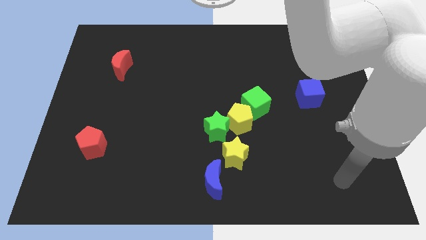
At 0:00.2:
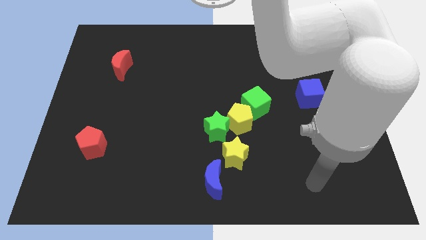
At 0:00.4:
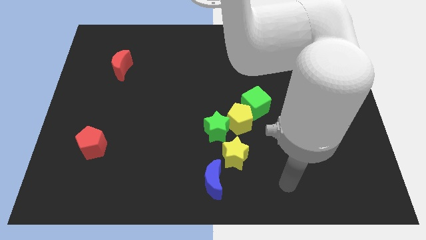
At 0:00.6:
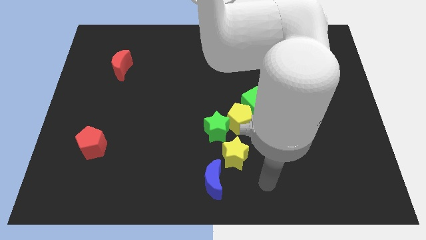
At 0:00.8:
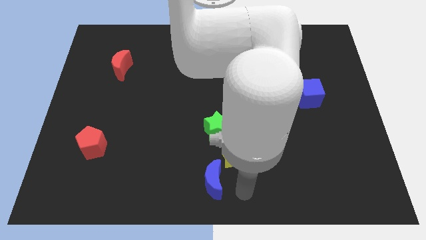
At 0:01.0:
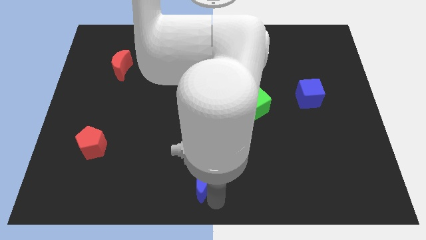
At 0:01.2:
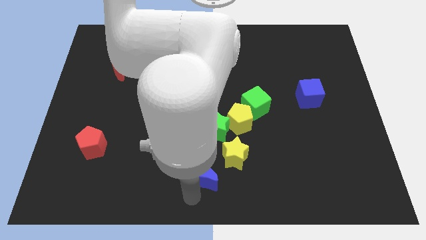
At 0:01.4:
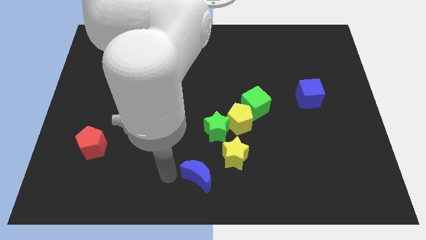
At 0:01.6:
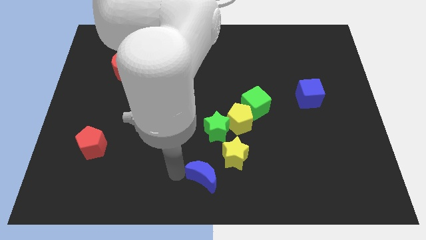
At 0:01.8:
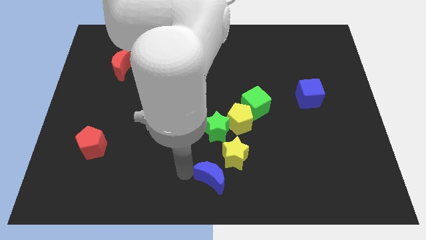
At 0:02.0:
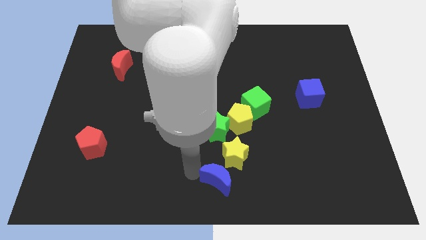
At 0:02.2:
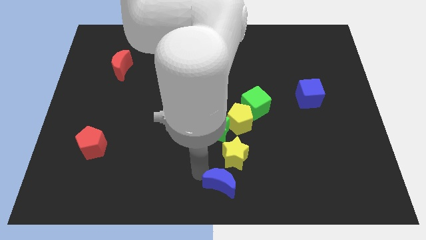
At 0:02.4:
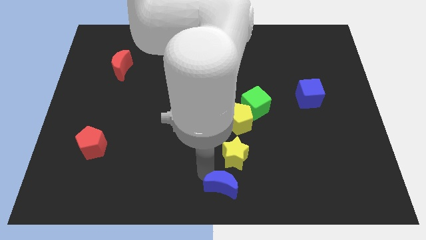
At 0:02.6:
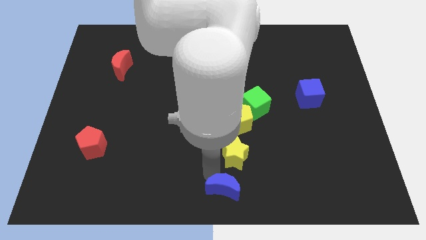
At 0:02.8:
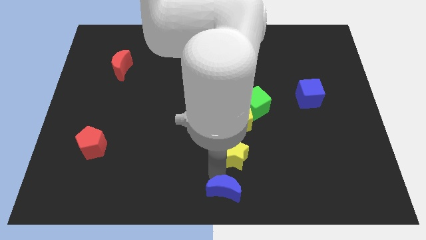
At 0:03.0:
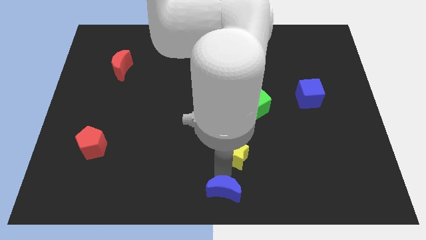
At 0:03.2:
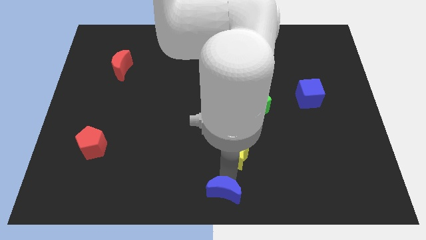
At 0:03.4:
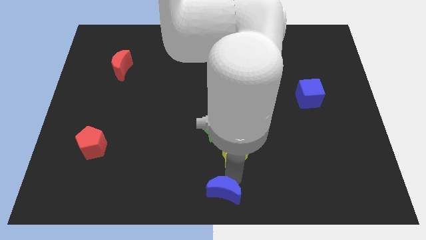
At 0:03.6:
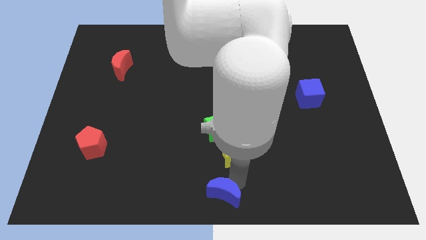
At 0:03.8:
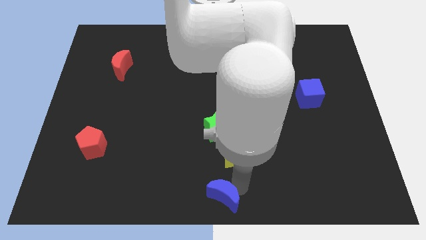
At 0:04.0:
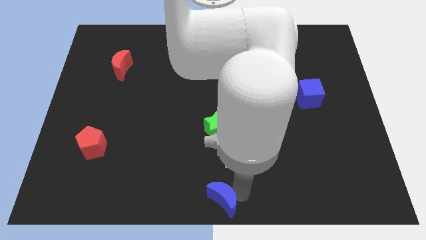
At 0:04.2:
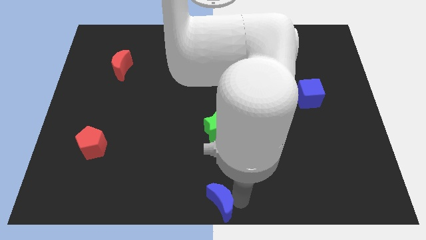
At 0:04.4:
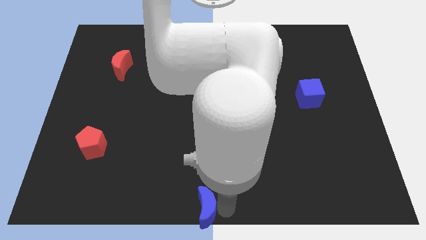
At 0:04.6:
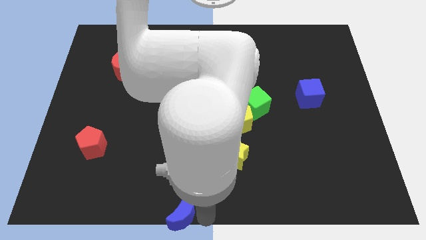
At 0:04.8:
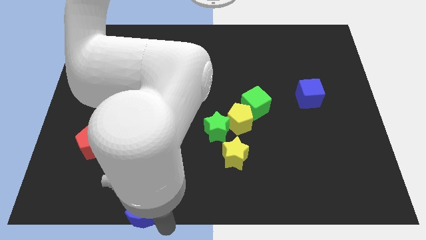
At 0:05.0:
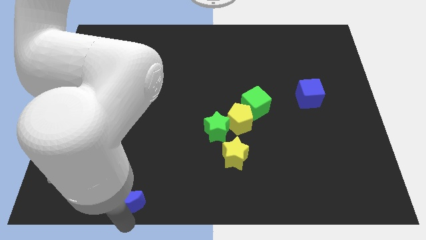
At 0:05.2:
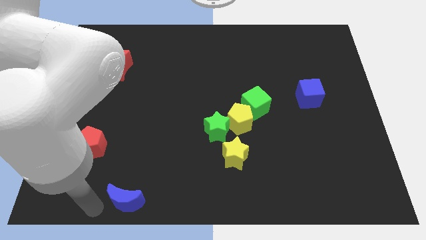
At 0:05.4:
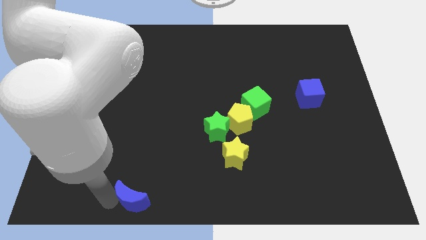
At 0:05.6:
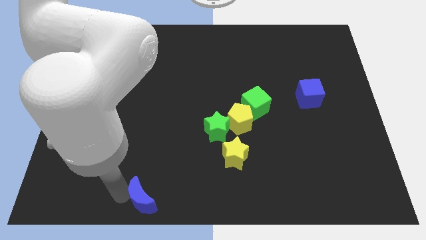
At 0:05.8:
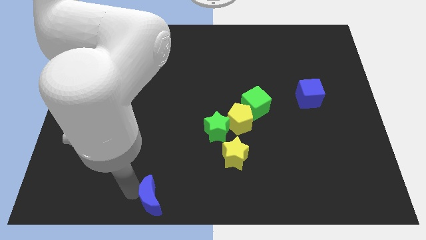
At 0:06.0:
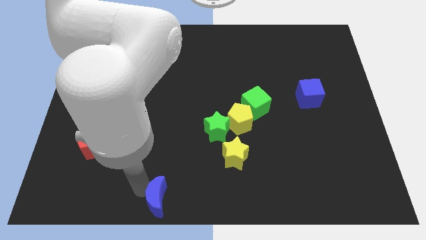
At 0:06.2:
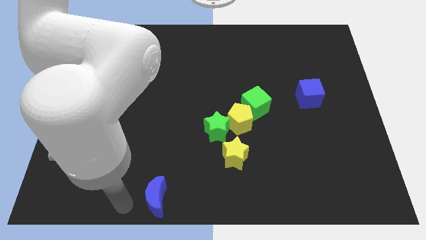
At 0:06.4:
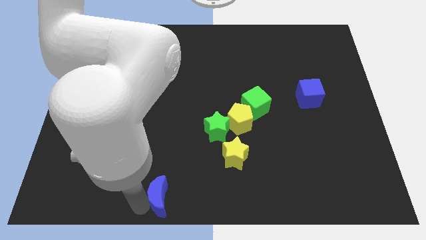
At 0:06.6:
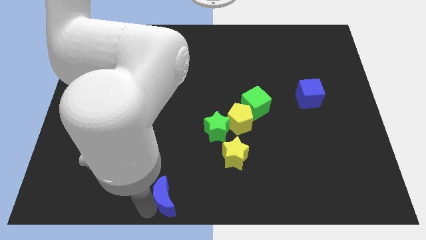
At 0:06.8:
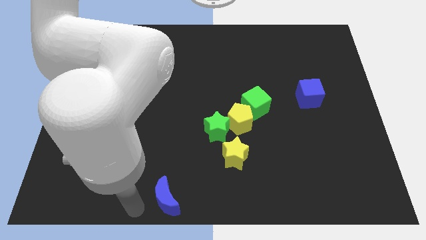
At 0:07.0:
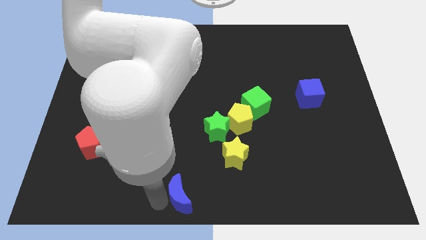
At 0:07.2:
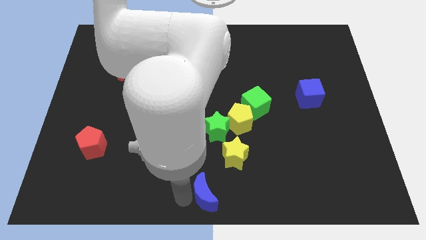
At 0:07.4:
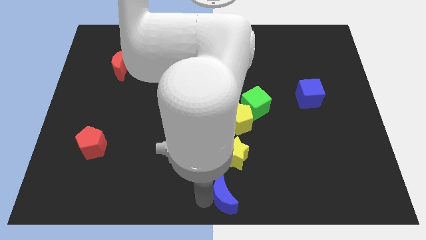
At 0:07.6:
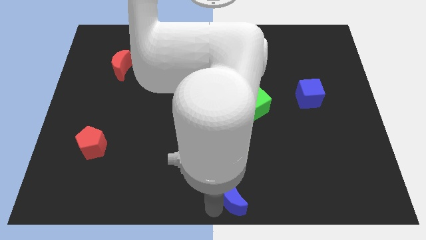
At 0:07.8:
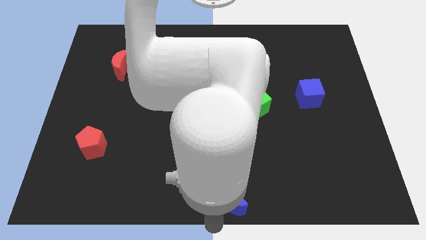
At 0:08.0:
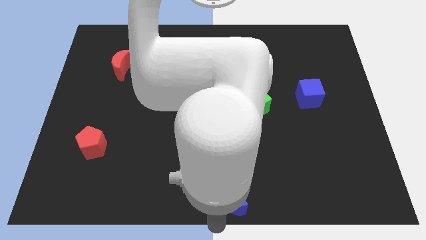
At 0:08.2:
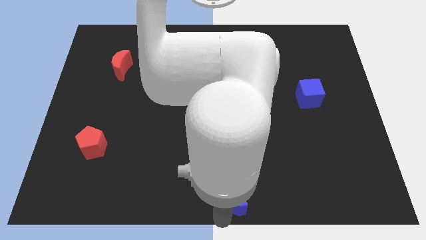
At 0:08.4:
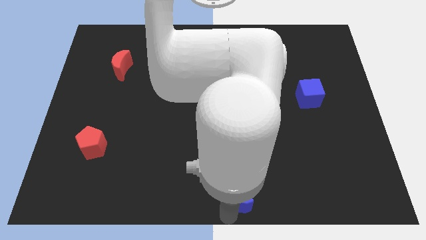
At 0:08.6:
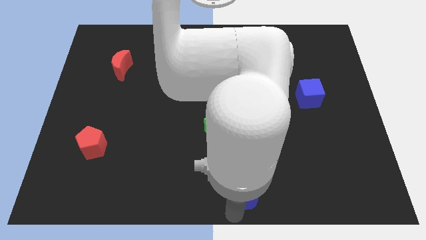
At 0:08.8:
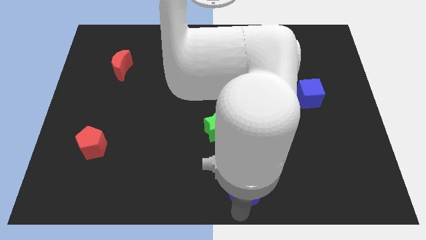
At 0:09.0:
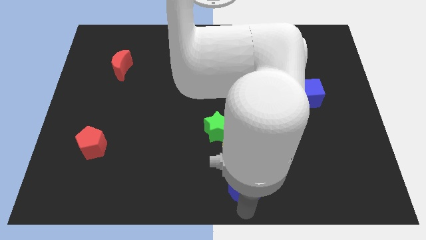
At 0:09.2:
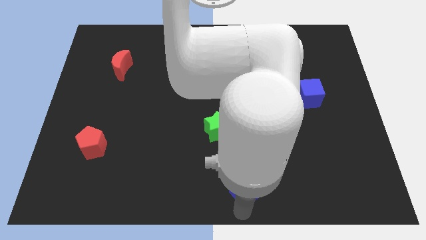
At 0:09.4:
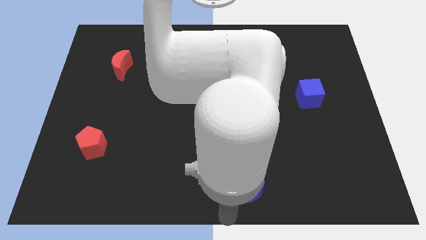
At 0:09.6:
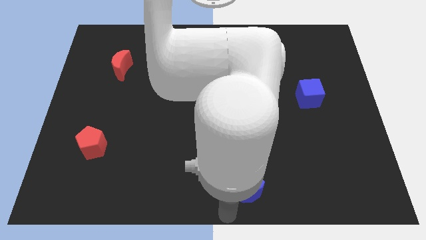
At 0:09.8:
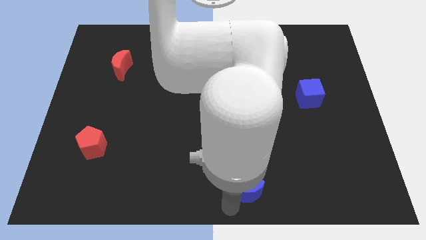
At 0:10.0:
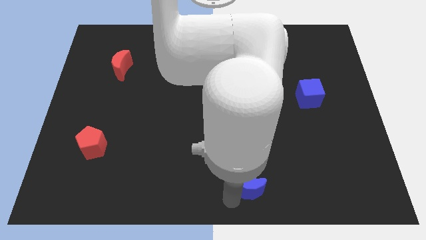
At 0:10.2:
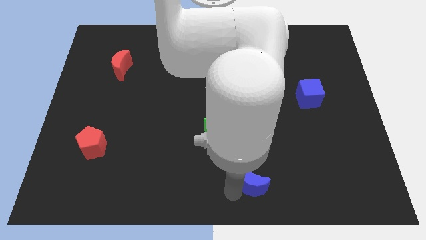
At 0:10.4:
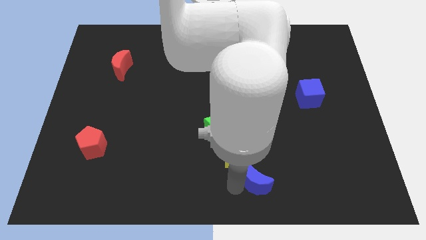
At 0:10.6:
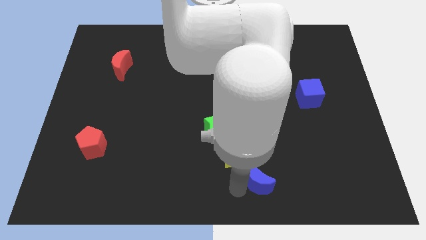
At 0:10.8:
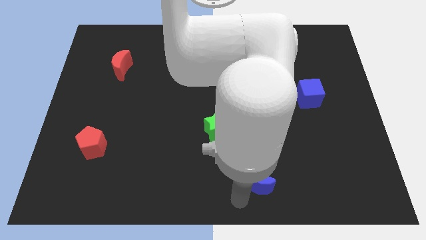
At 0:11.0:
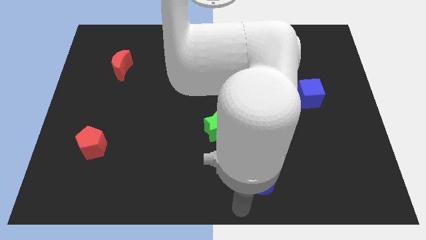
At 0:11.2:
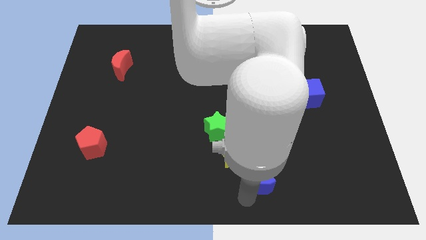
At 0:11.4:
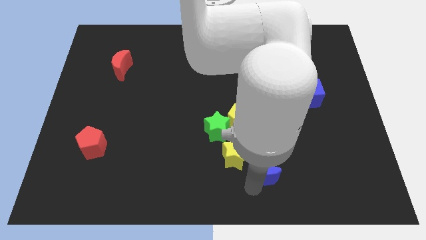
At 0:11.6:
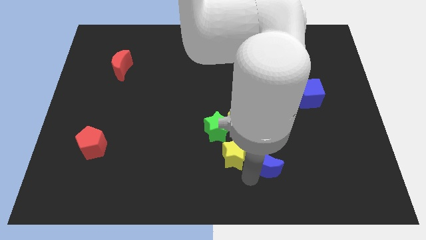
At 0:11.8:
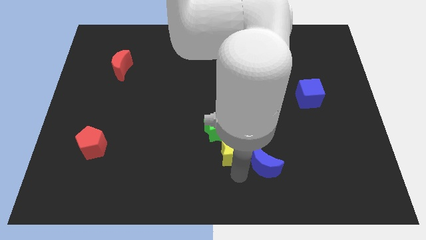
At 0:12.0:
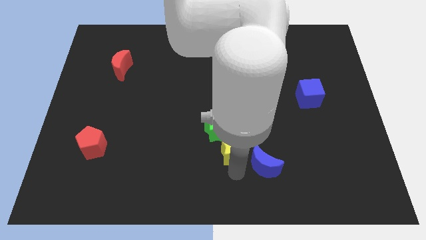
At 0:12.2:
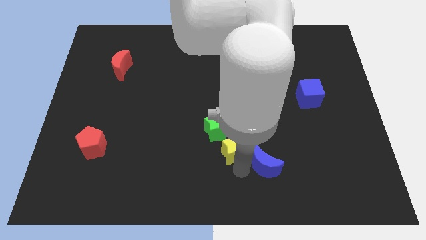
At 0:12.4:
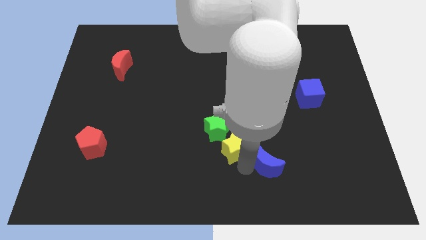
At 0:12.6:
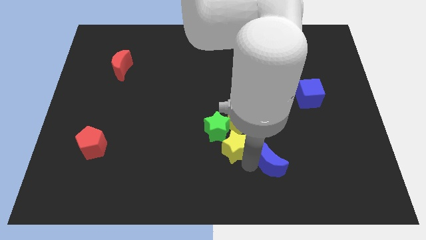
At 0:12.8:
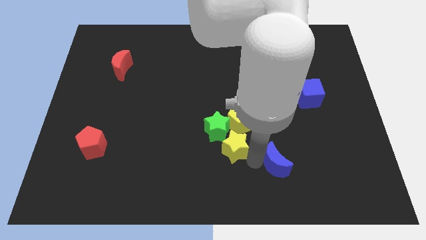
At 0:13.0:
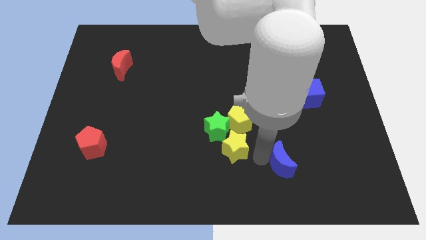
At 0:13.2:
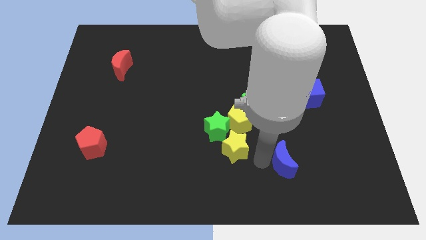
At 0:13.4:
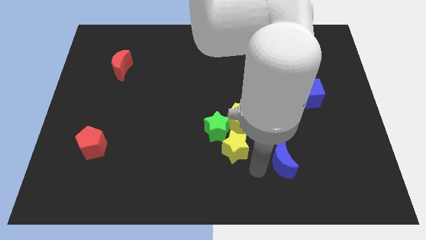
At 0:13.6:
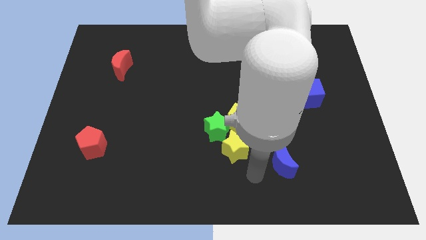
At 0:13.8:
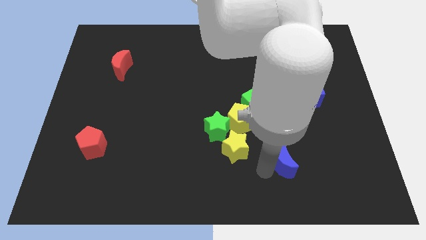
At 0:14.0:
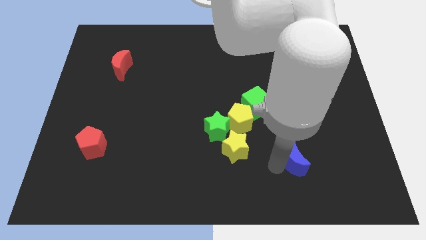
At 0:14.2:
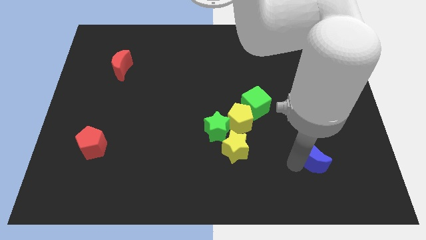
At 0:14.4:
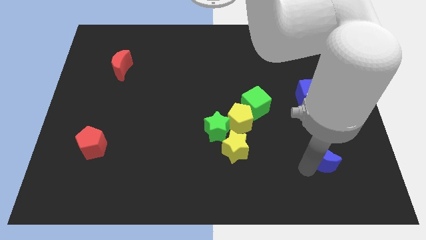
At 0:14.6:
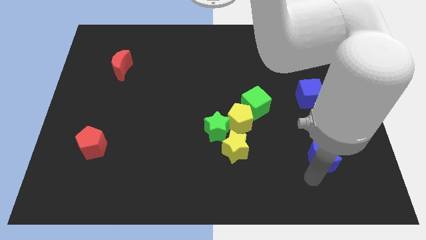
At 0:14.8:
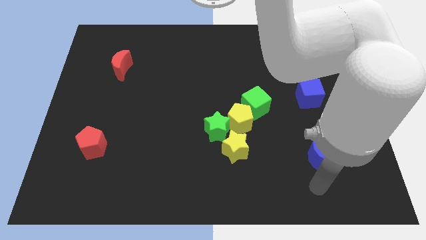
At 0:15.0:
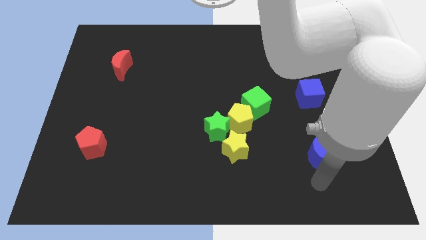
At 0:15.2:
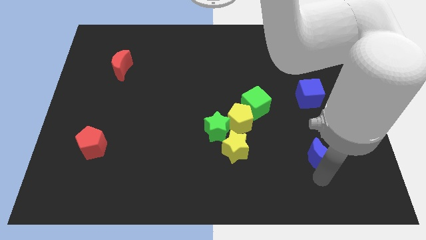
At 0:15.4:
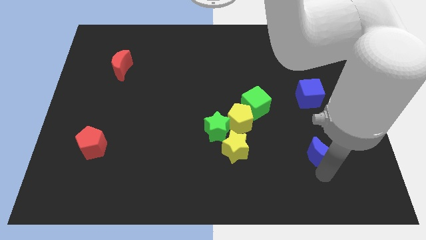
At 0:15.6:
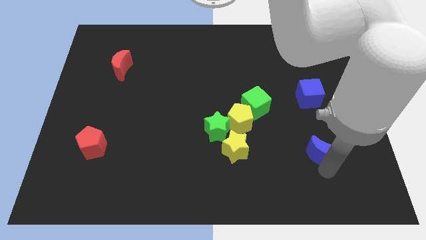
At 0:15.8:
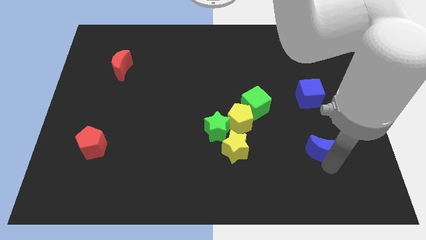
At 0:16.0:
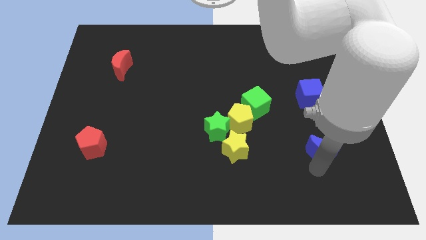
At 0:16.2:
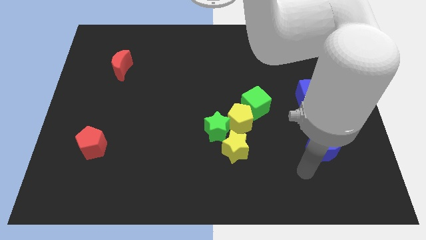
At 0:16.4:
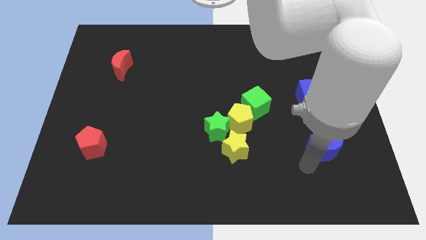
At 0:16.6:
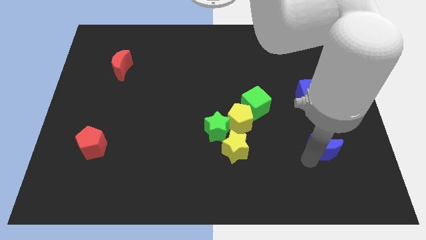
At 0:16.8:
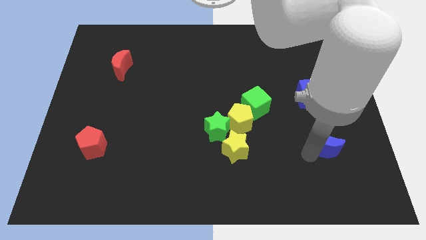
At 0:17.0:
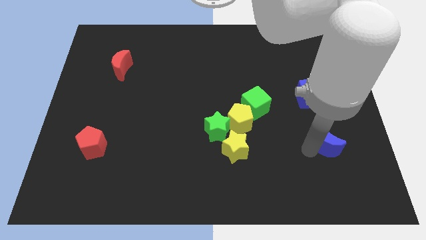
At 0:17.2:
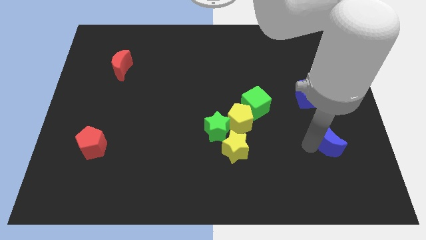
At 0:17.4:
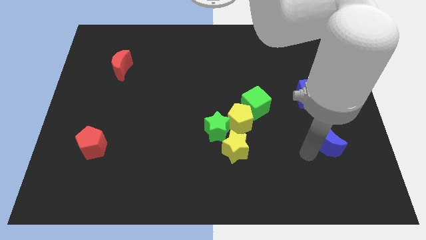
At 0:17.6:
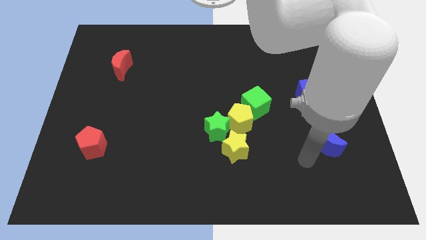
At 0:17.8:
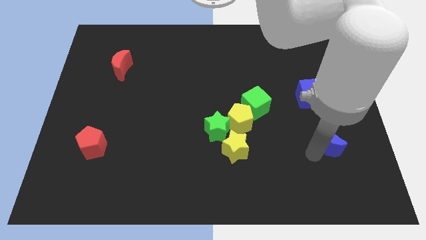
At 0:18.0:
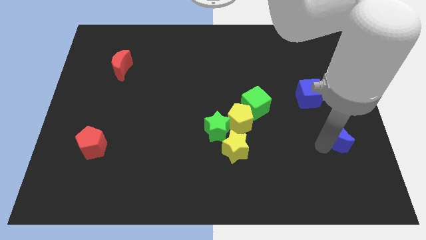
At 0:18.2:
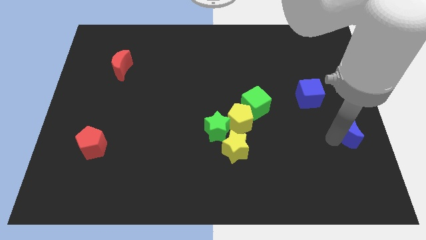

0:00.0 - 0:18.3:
push the blue moon to the right side of the board
